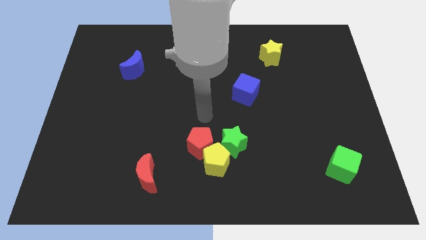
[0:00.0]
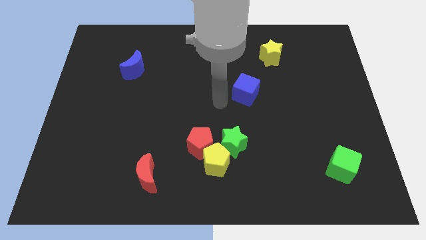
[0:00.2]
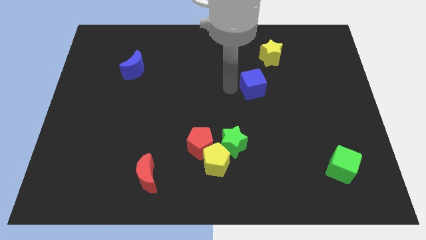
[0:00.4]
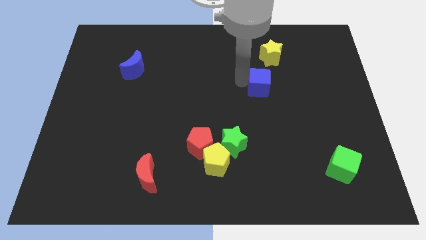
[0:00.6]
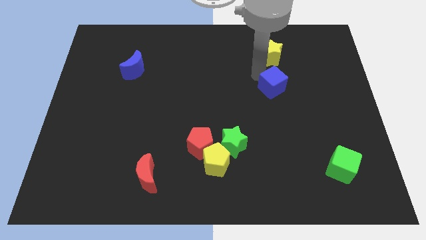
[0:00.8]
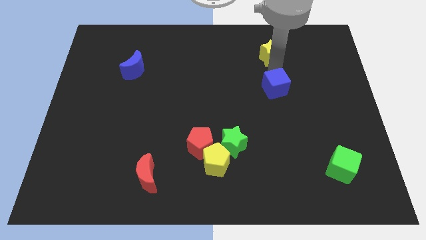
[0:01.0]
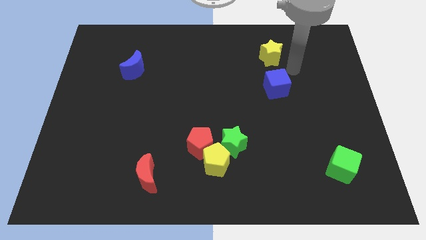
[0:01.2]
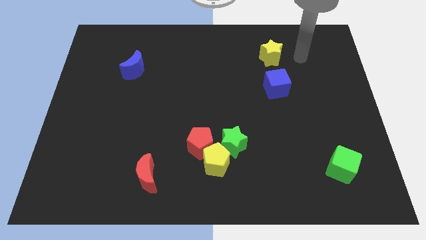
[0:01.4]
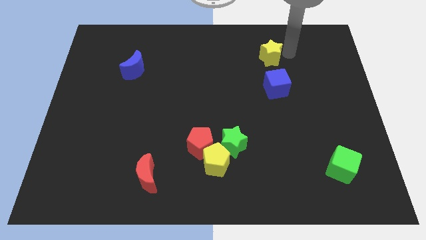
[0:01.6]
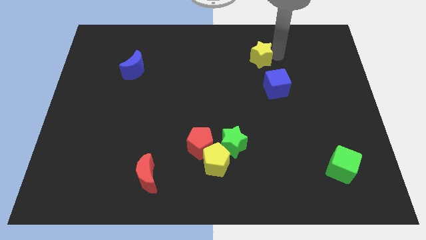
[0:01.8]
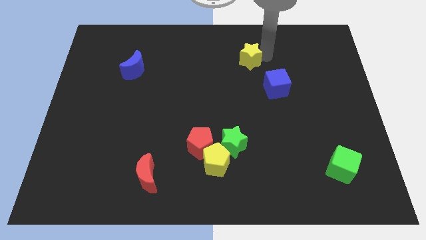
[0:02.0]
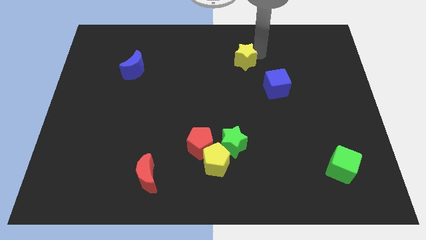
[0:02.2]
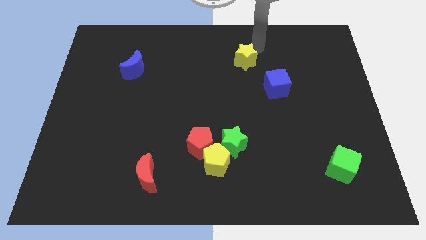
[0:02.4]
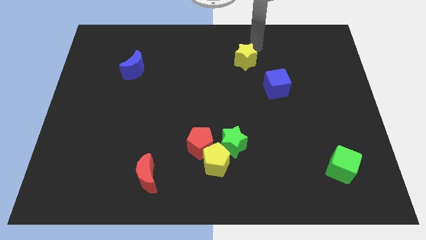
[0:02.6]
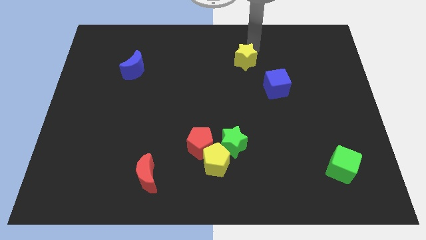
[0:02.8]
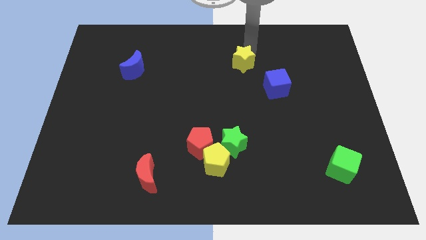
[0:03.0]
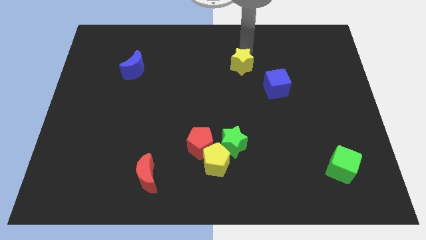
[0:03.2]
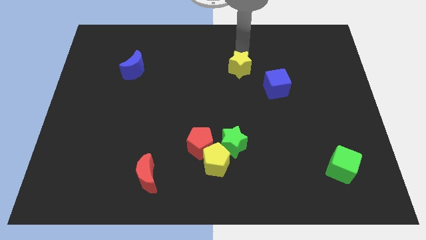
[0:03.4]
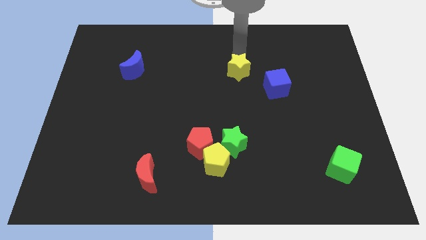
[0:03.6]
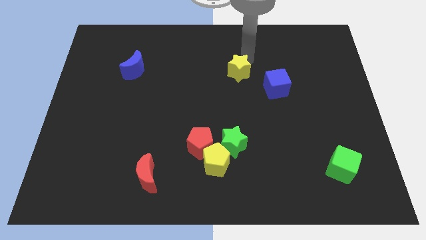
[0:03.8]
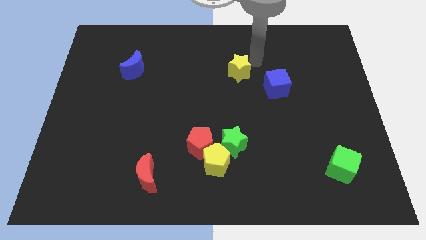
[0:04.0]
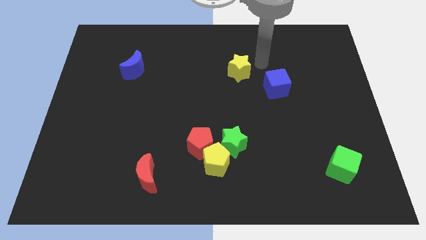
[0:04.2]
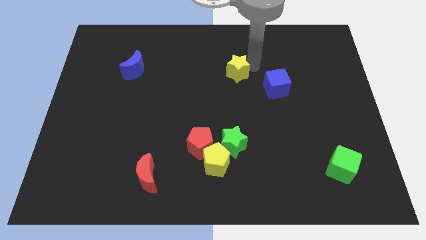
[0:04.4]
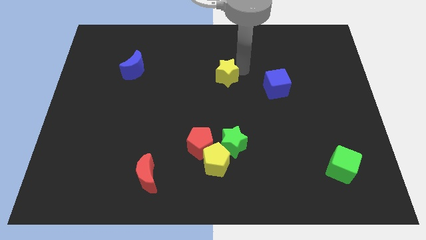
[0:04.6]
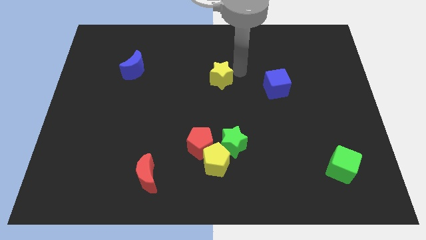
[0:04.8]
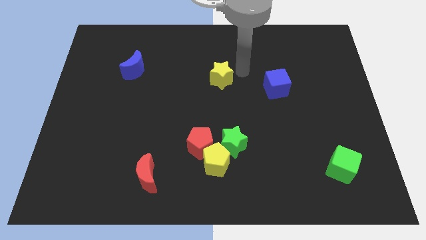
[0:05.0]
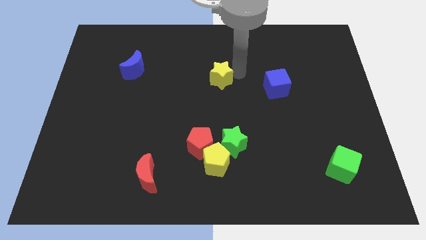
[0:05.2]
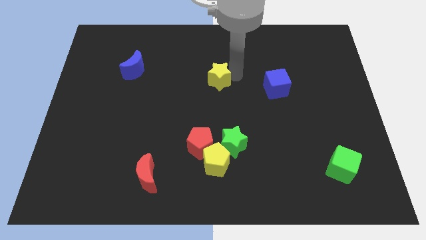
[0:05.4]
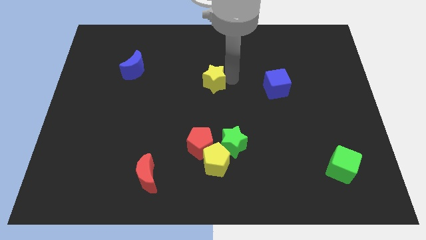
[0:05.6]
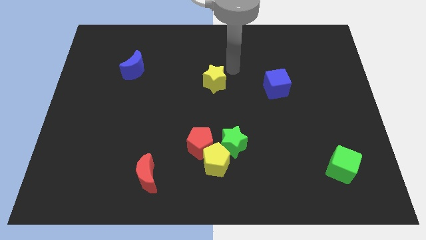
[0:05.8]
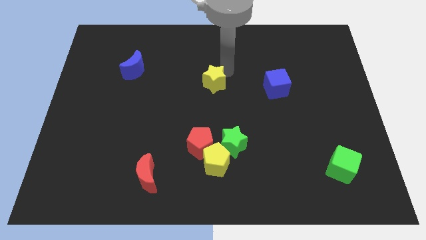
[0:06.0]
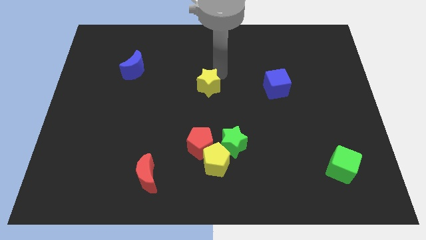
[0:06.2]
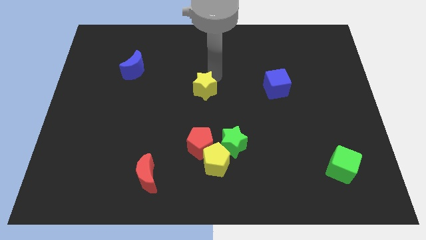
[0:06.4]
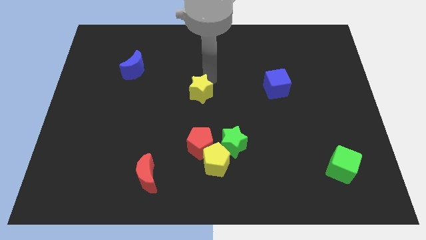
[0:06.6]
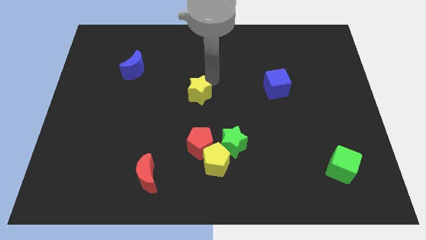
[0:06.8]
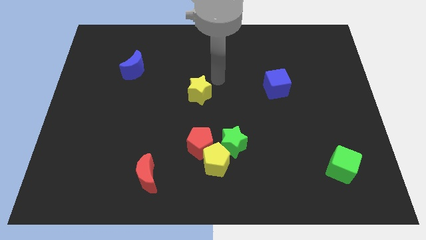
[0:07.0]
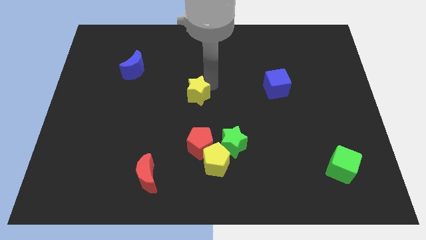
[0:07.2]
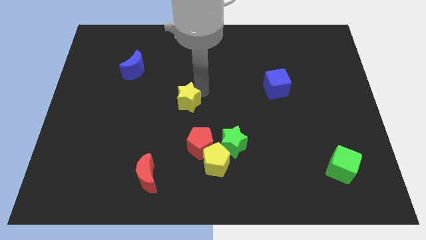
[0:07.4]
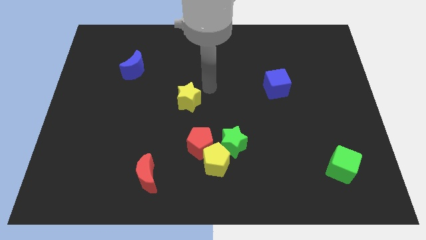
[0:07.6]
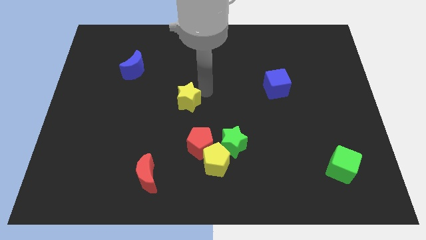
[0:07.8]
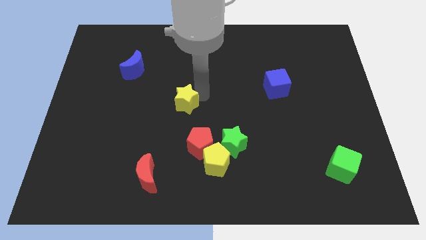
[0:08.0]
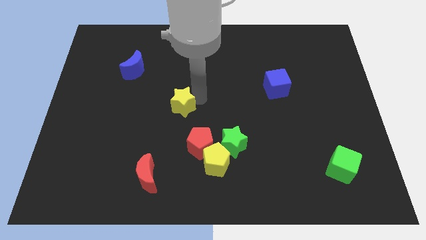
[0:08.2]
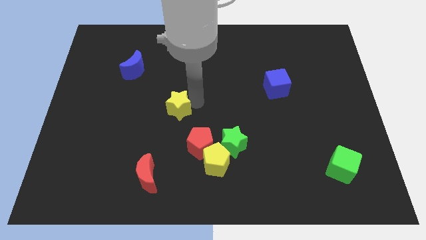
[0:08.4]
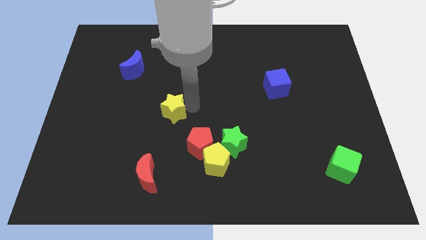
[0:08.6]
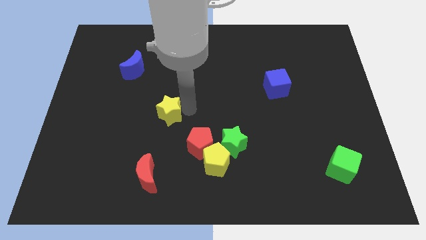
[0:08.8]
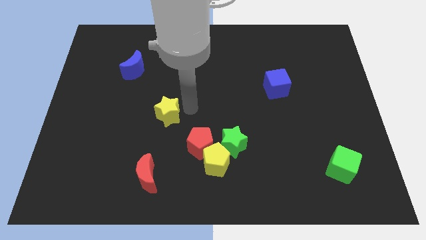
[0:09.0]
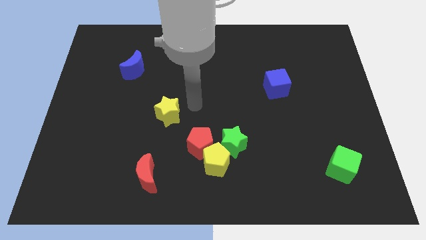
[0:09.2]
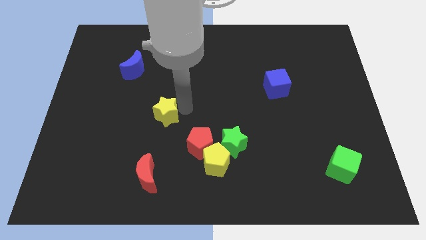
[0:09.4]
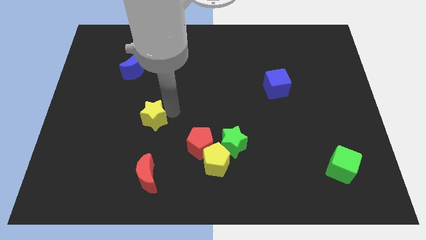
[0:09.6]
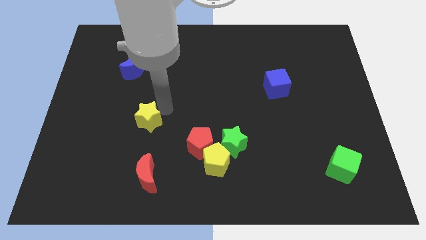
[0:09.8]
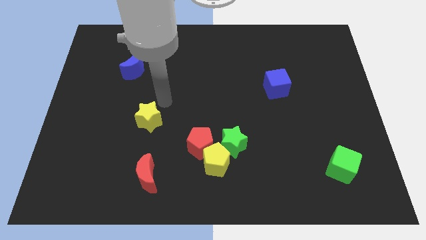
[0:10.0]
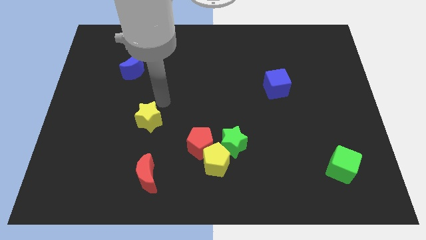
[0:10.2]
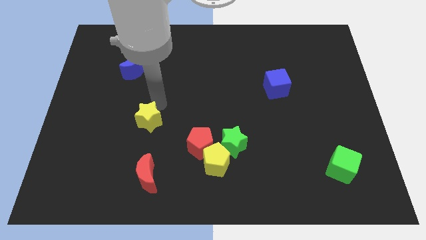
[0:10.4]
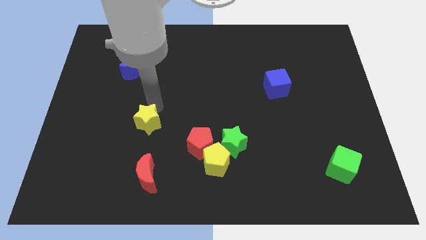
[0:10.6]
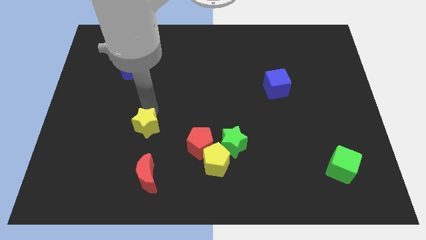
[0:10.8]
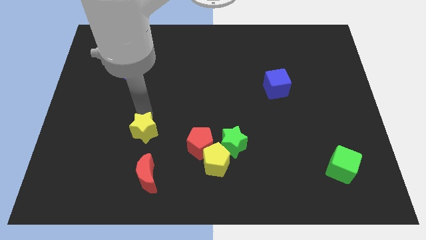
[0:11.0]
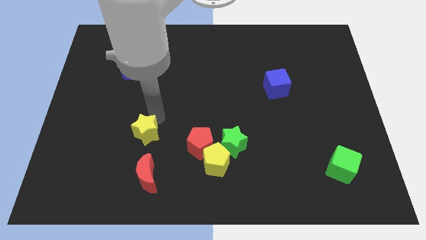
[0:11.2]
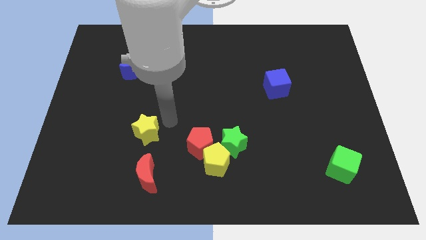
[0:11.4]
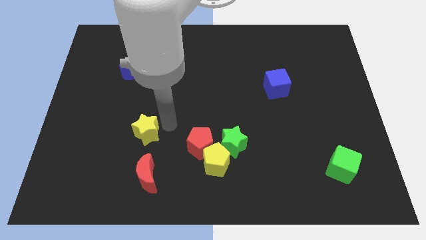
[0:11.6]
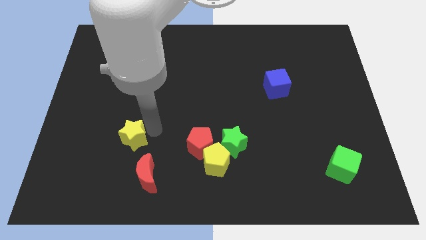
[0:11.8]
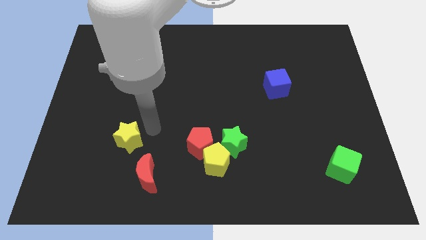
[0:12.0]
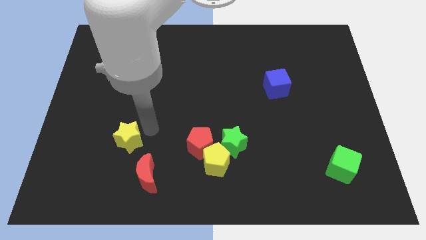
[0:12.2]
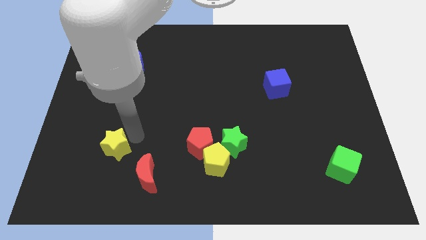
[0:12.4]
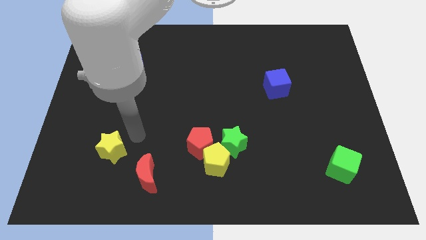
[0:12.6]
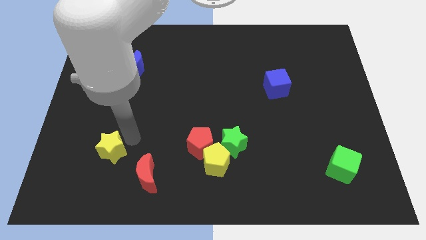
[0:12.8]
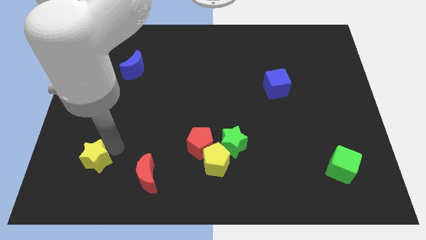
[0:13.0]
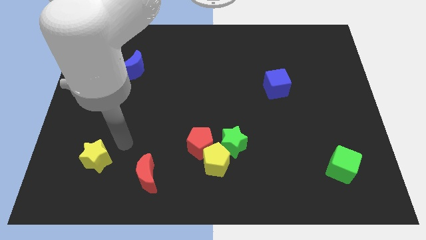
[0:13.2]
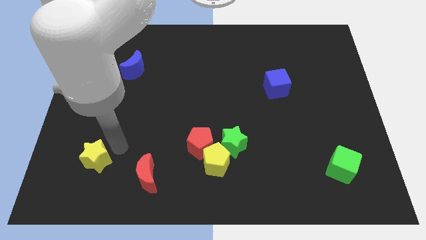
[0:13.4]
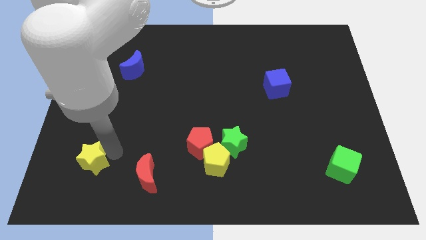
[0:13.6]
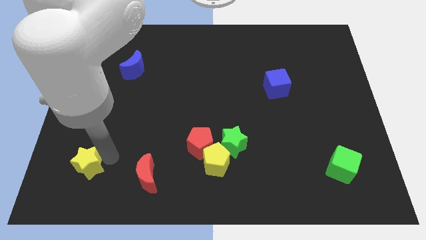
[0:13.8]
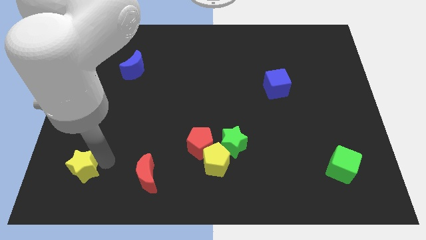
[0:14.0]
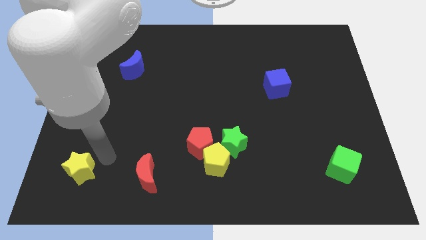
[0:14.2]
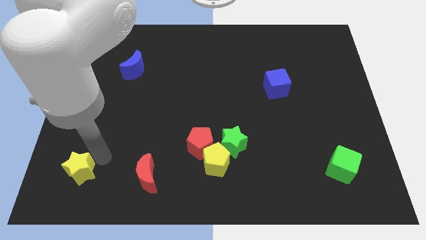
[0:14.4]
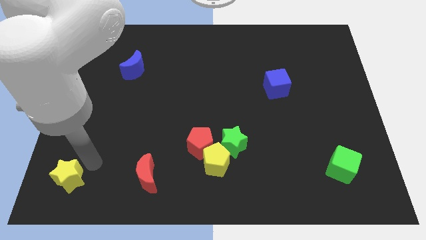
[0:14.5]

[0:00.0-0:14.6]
slide the yellow star to the lower left corner
